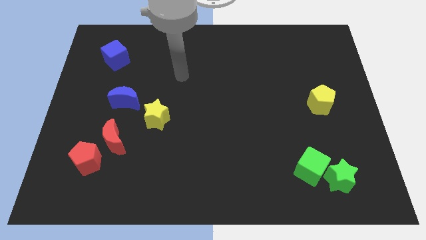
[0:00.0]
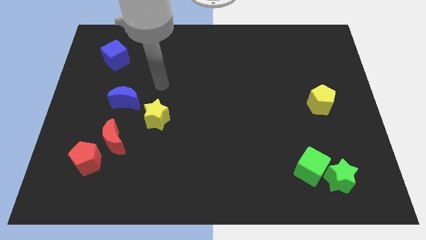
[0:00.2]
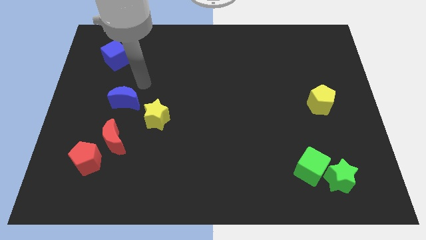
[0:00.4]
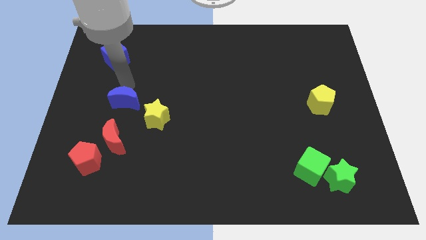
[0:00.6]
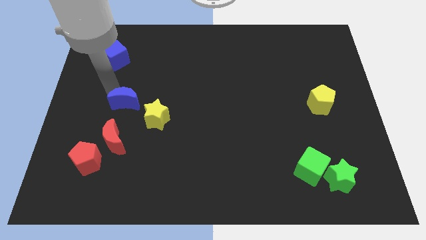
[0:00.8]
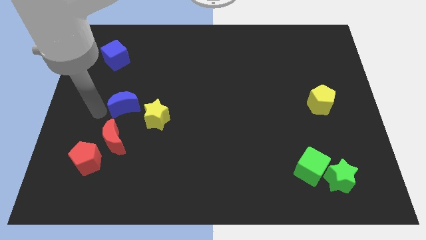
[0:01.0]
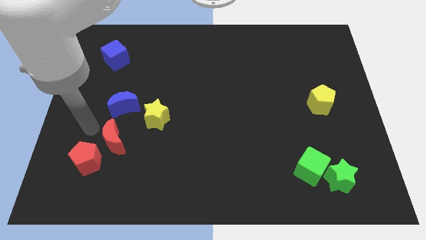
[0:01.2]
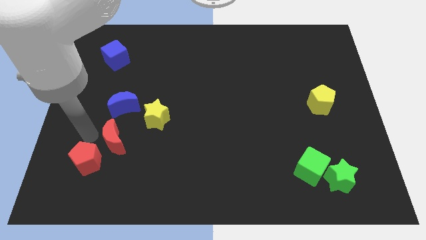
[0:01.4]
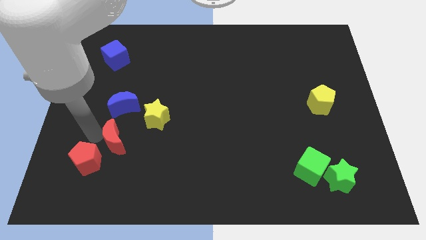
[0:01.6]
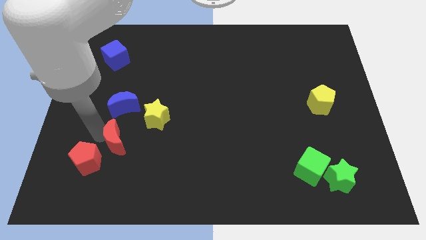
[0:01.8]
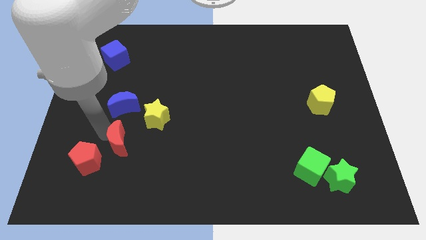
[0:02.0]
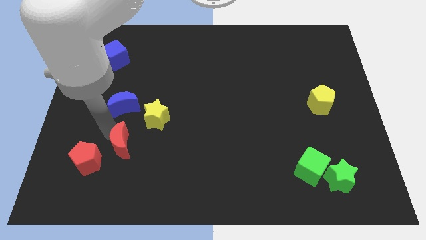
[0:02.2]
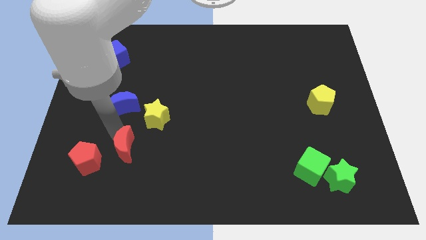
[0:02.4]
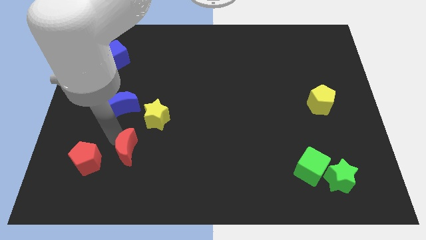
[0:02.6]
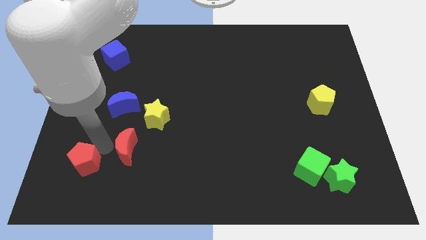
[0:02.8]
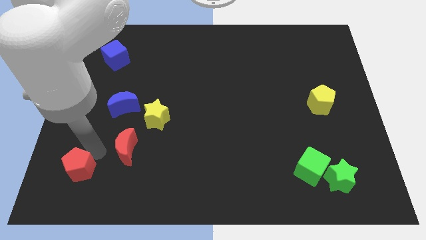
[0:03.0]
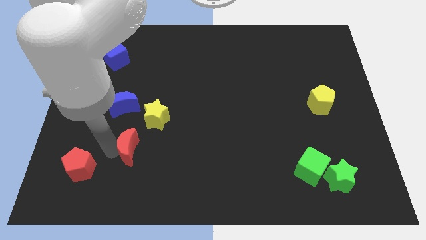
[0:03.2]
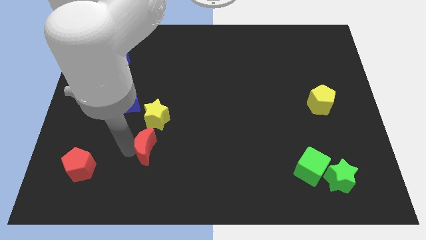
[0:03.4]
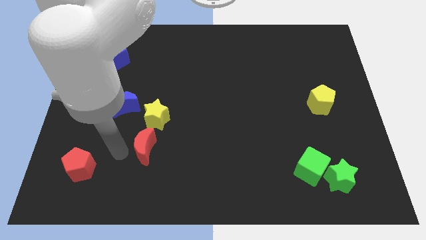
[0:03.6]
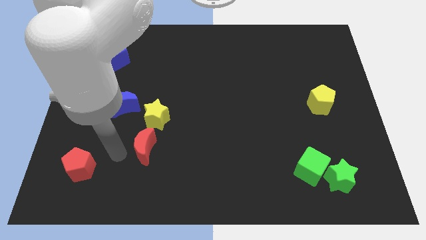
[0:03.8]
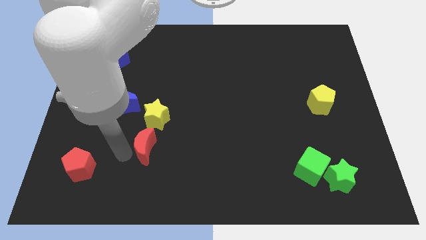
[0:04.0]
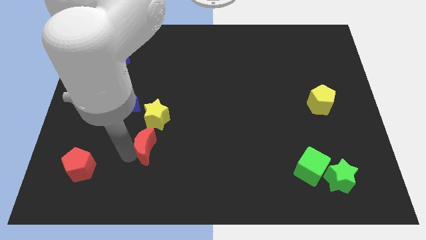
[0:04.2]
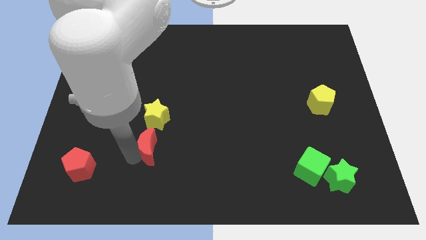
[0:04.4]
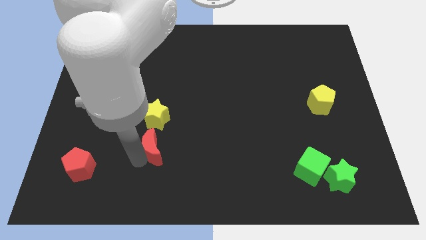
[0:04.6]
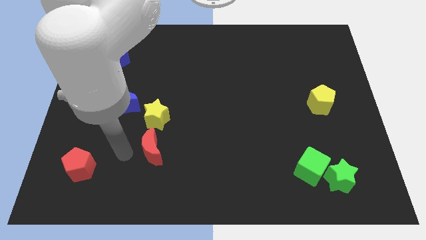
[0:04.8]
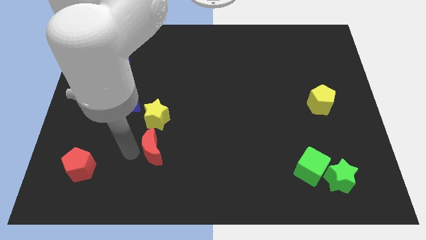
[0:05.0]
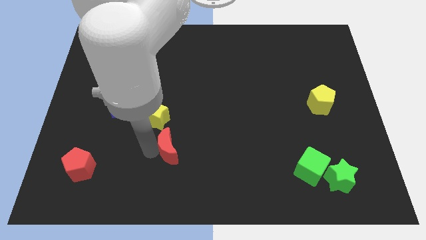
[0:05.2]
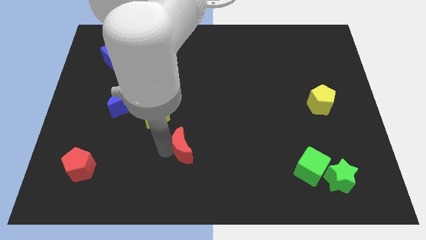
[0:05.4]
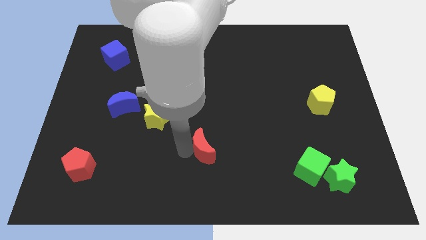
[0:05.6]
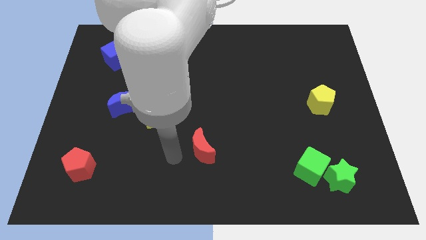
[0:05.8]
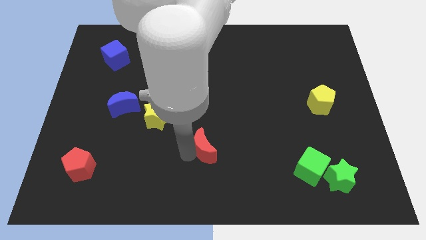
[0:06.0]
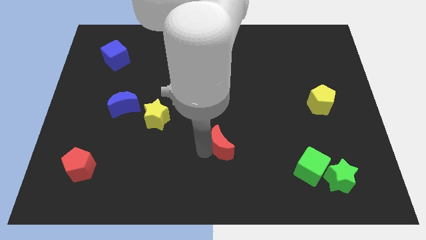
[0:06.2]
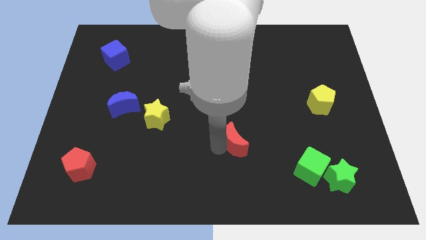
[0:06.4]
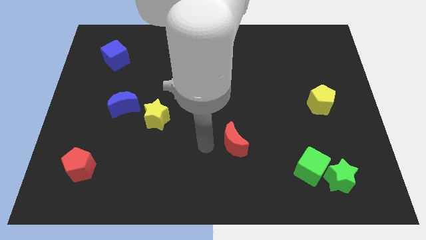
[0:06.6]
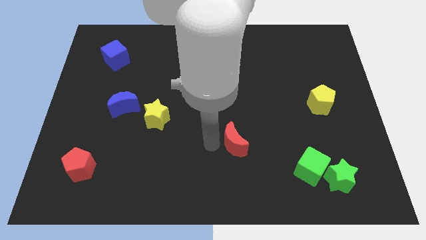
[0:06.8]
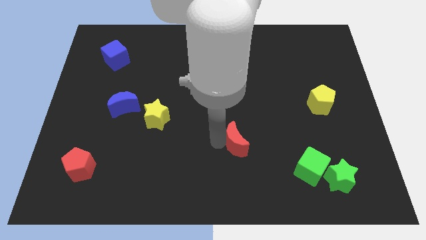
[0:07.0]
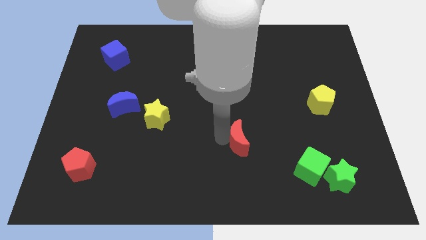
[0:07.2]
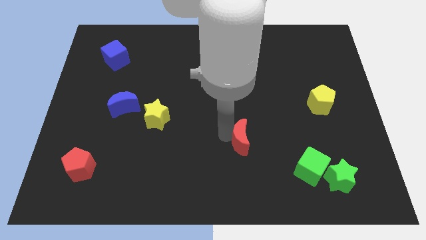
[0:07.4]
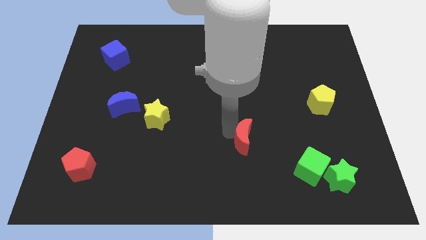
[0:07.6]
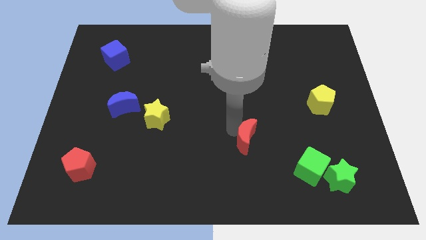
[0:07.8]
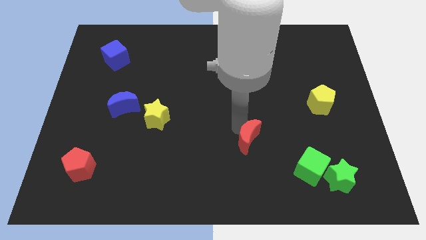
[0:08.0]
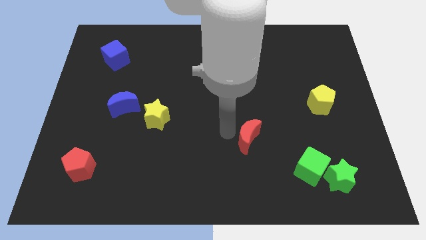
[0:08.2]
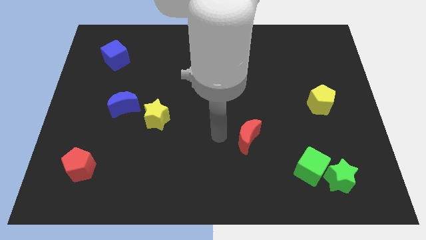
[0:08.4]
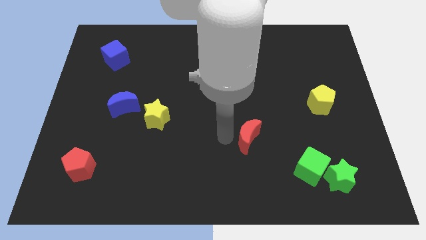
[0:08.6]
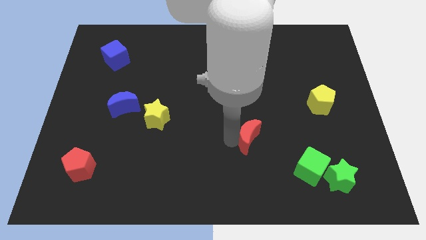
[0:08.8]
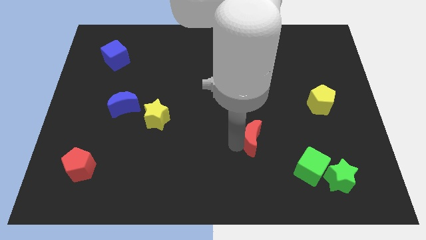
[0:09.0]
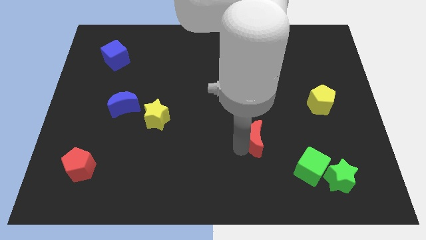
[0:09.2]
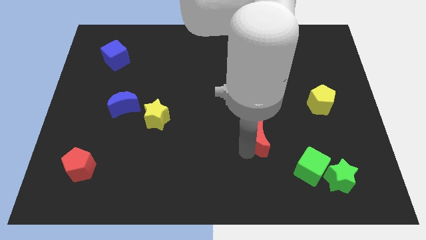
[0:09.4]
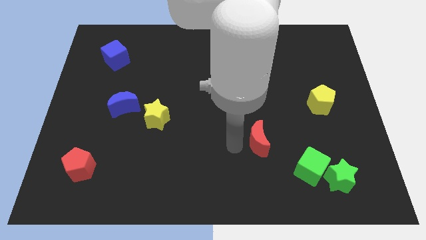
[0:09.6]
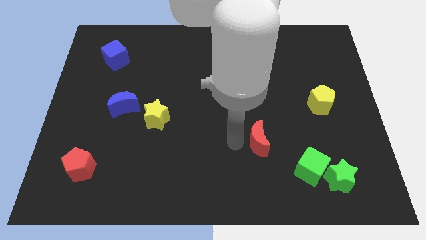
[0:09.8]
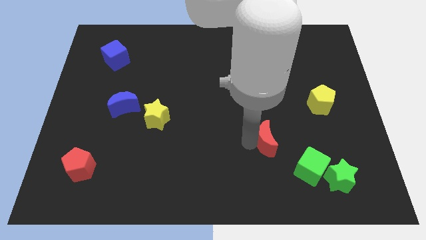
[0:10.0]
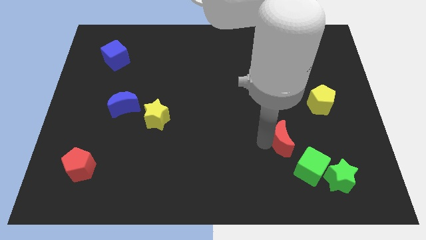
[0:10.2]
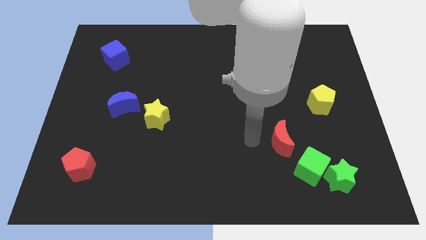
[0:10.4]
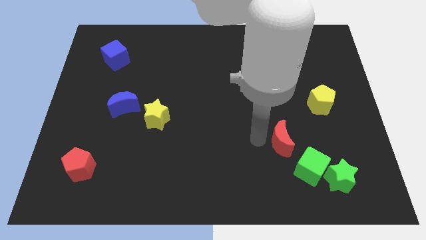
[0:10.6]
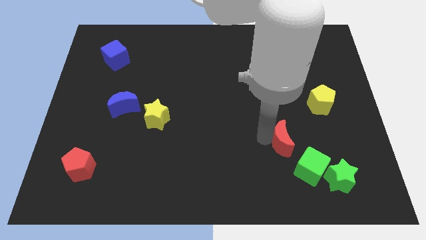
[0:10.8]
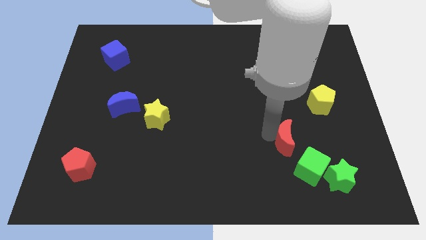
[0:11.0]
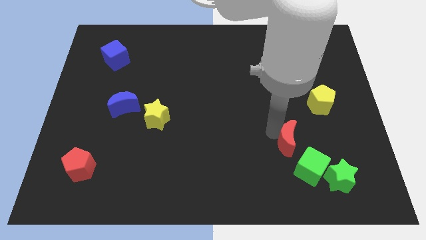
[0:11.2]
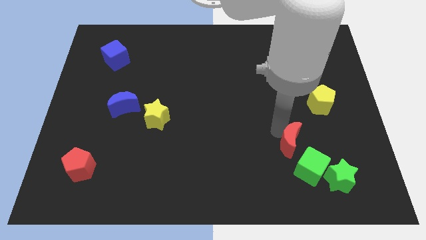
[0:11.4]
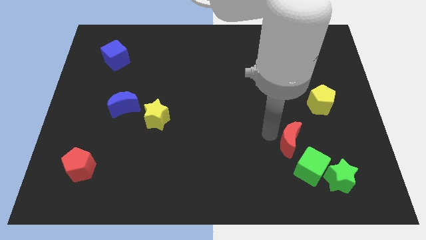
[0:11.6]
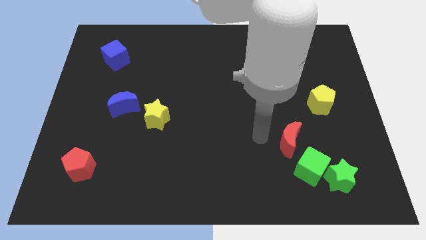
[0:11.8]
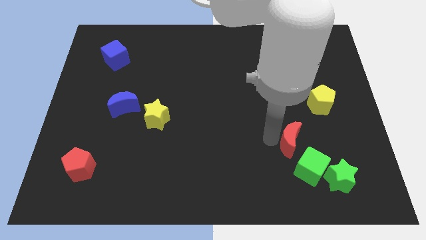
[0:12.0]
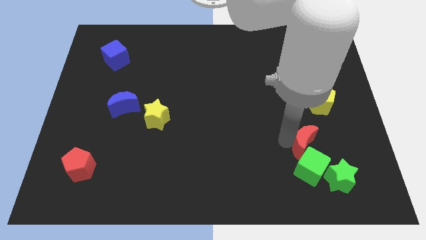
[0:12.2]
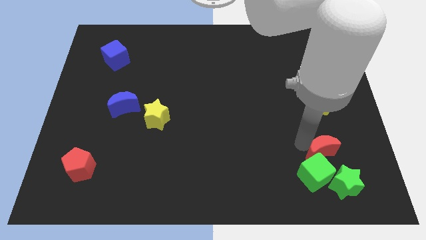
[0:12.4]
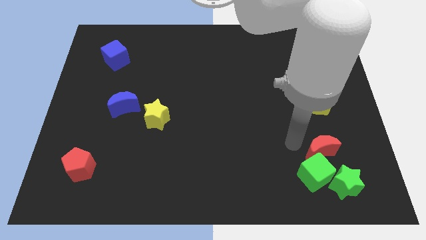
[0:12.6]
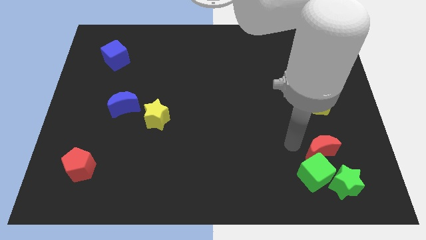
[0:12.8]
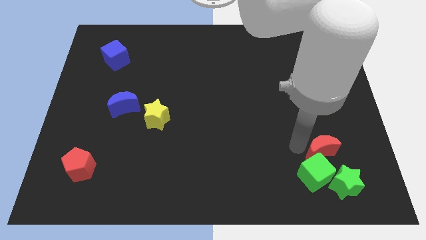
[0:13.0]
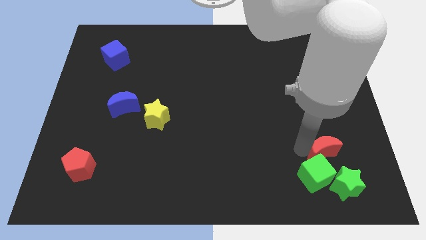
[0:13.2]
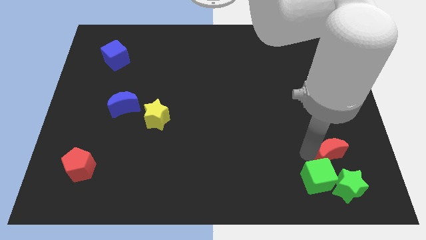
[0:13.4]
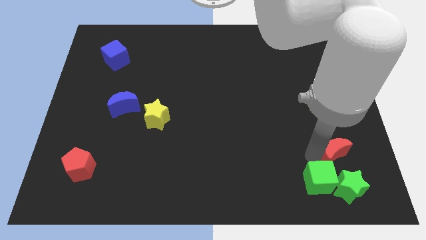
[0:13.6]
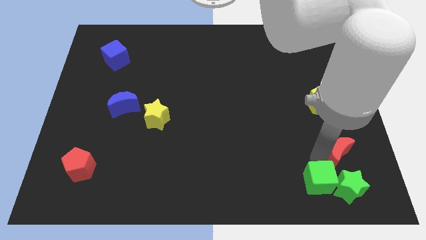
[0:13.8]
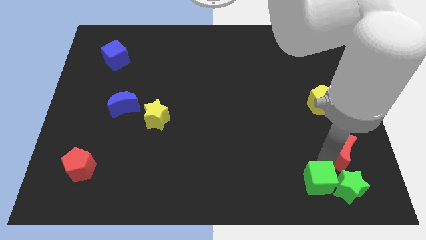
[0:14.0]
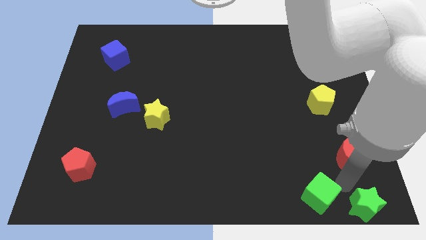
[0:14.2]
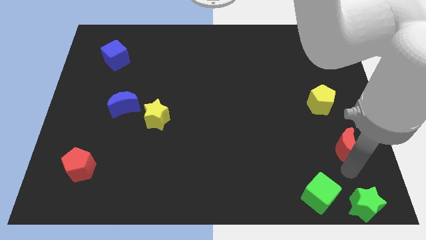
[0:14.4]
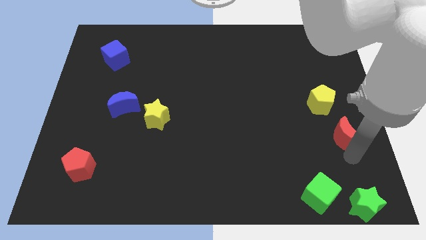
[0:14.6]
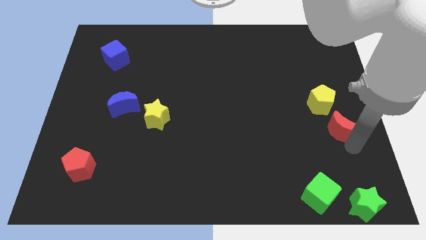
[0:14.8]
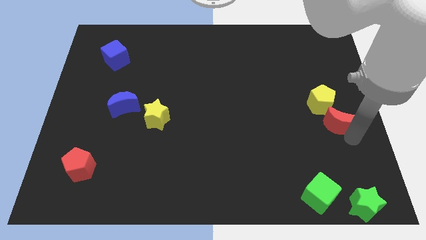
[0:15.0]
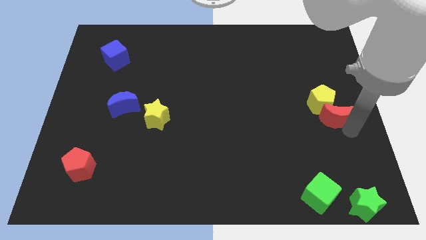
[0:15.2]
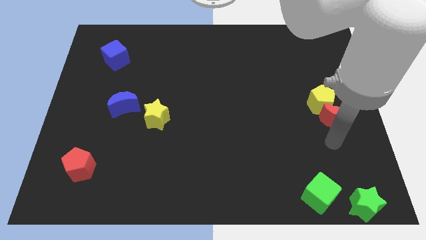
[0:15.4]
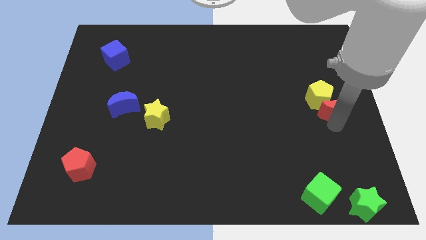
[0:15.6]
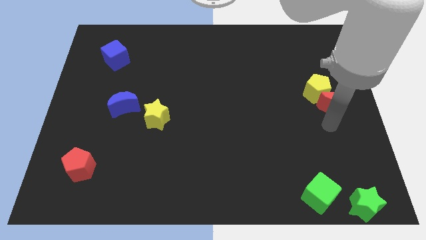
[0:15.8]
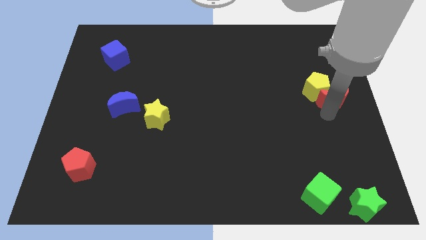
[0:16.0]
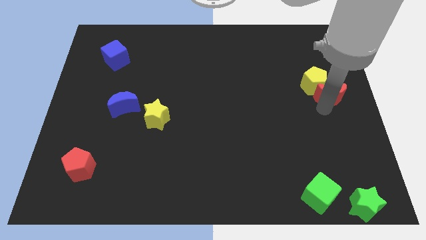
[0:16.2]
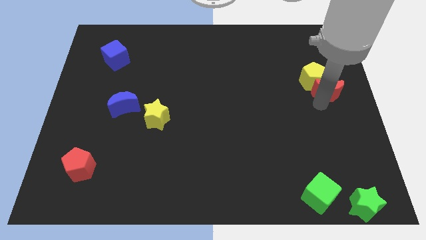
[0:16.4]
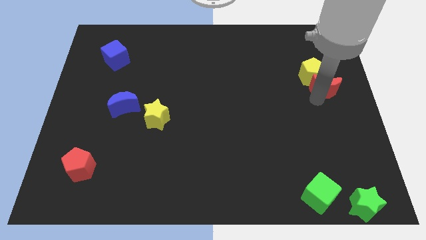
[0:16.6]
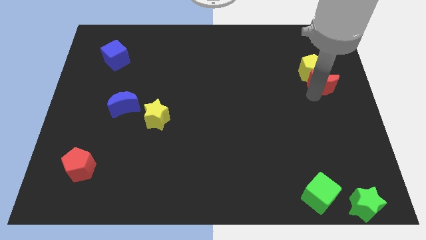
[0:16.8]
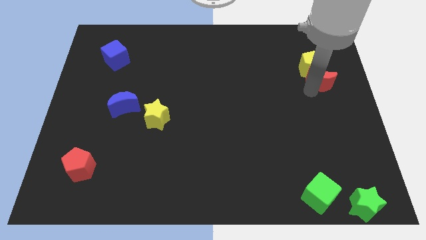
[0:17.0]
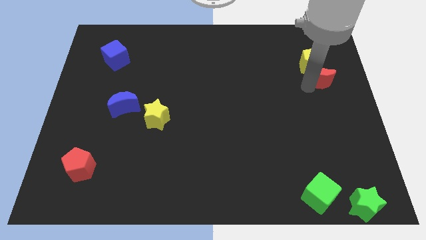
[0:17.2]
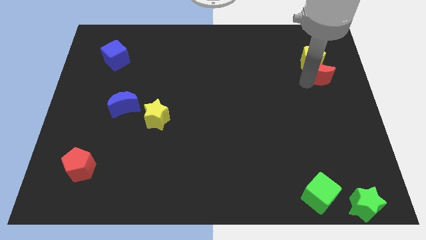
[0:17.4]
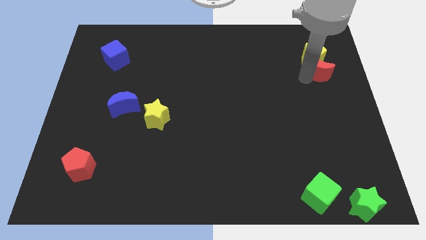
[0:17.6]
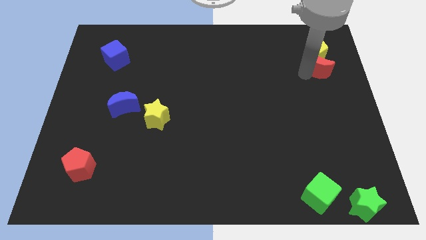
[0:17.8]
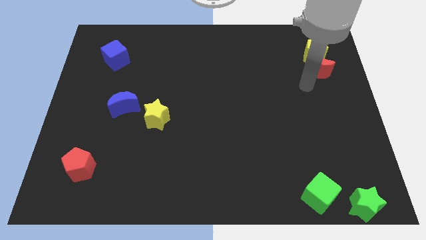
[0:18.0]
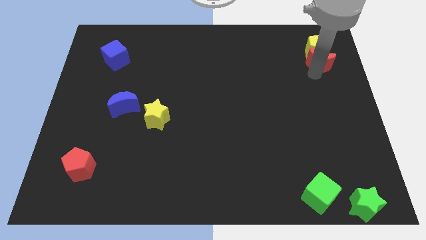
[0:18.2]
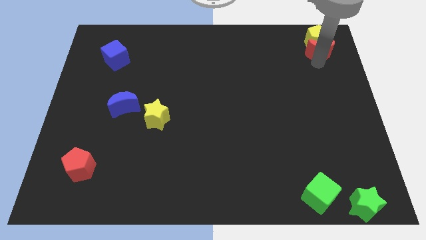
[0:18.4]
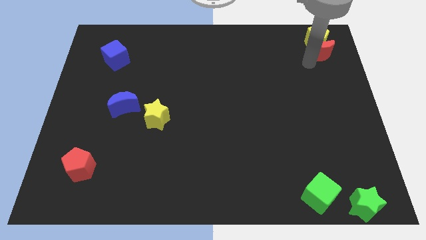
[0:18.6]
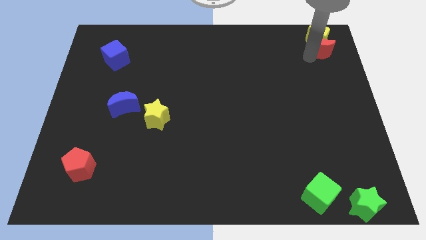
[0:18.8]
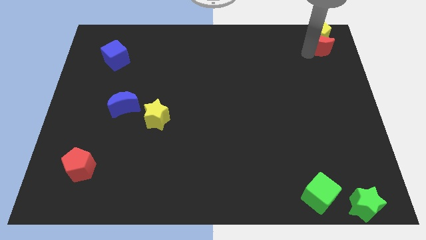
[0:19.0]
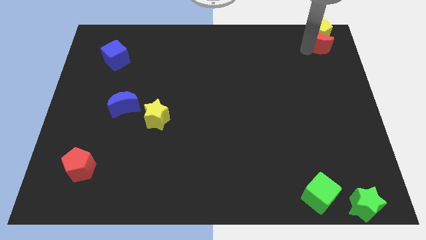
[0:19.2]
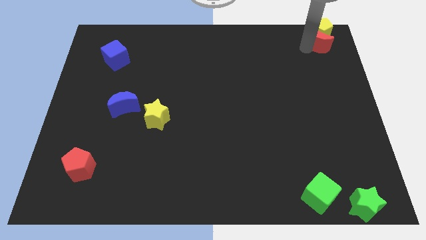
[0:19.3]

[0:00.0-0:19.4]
put the red moon to the top right of the board
